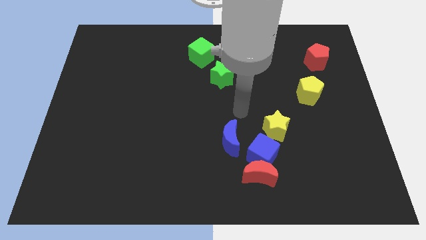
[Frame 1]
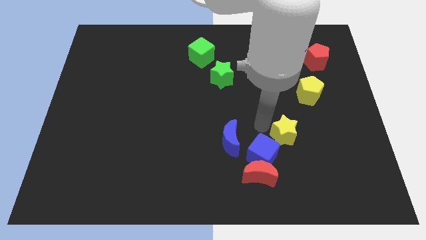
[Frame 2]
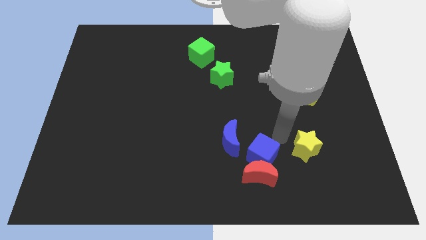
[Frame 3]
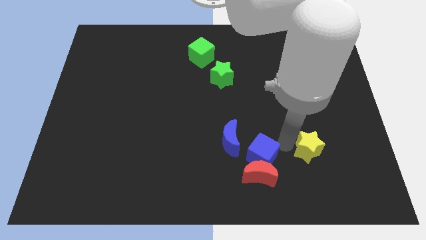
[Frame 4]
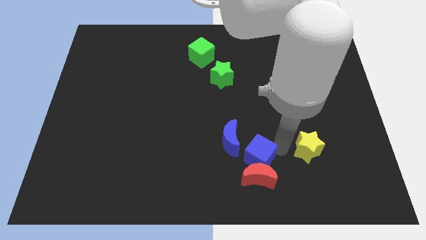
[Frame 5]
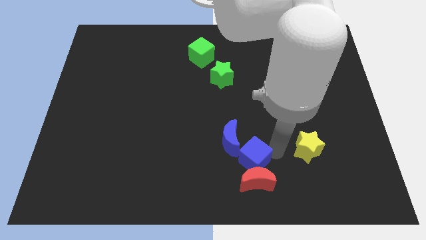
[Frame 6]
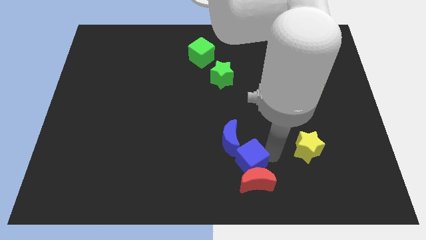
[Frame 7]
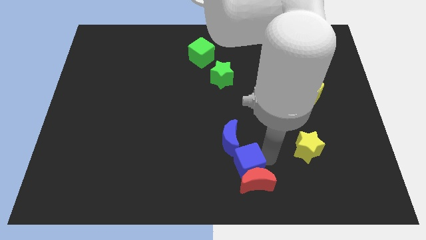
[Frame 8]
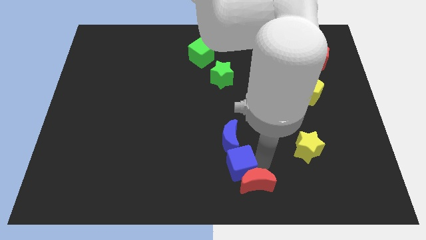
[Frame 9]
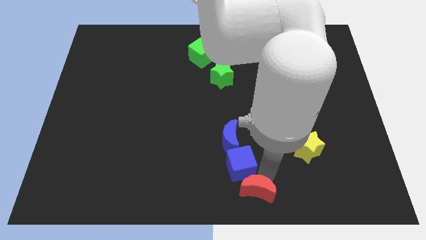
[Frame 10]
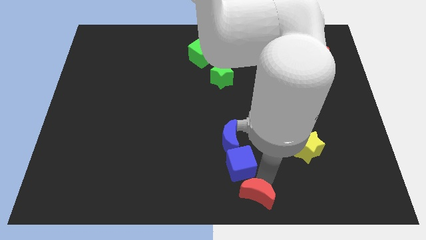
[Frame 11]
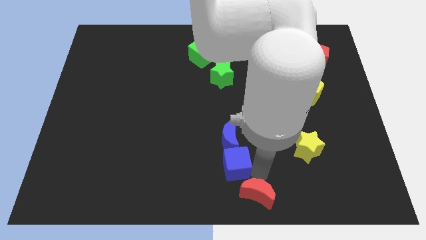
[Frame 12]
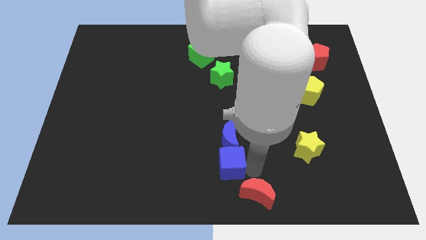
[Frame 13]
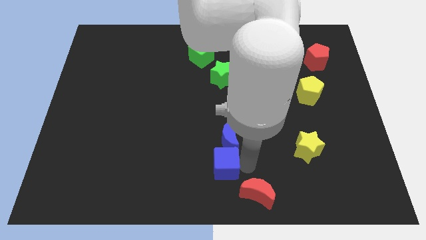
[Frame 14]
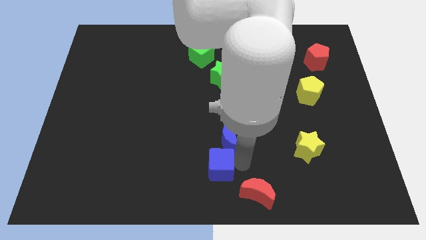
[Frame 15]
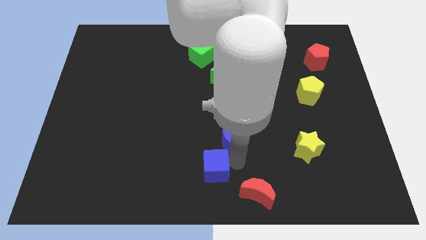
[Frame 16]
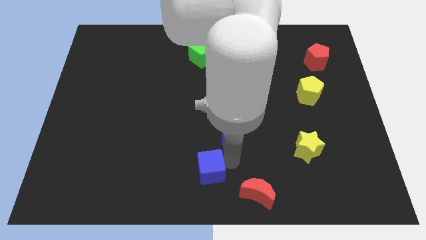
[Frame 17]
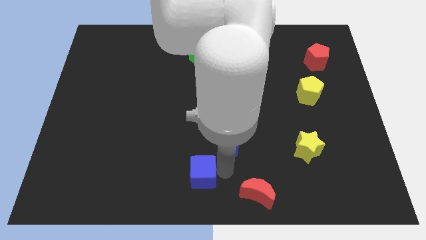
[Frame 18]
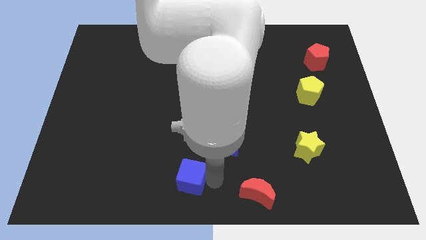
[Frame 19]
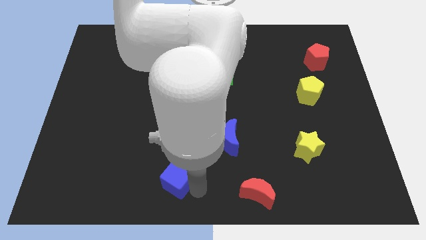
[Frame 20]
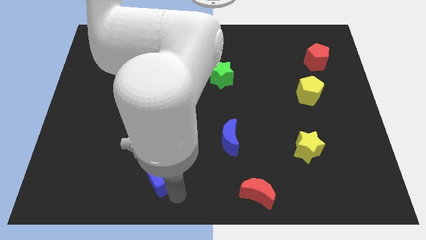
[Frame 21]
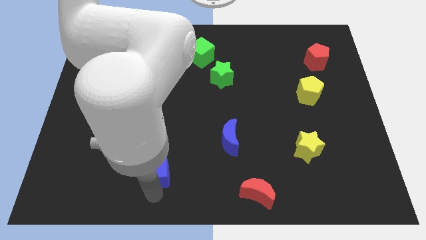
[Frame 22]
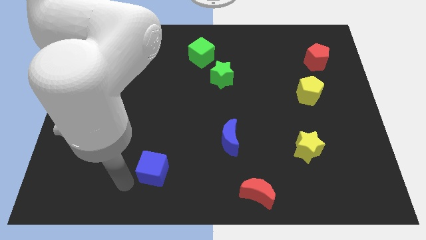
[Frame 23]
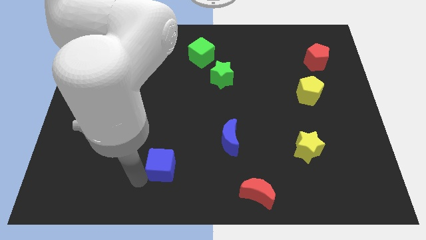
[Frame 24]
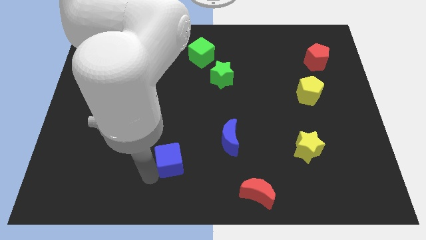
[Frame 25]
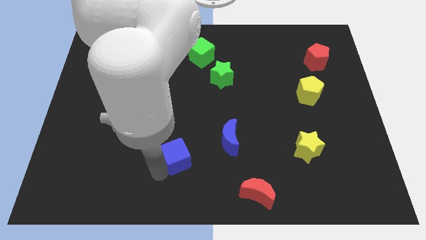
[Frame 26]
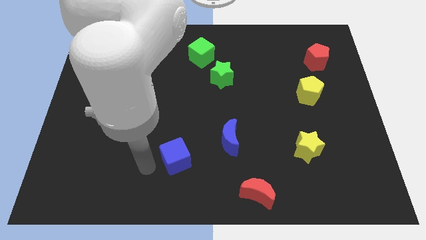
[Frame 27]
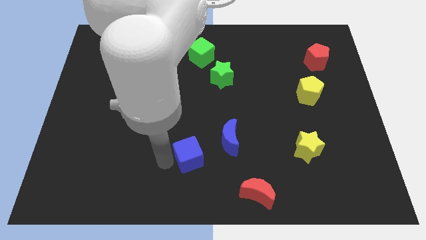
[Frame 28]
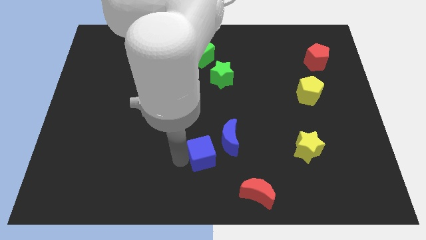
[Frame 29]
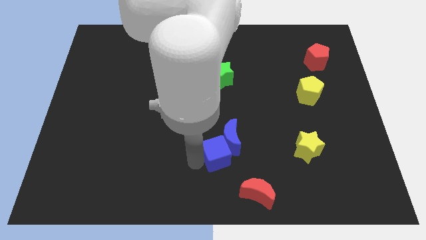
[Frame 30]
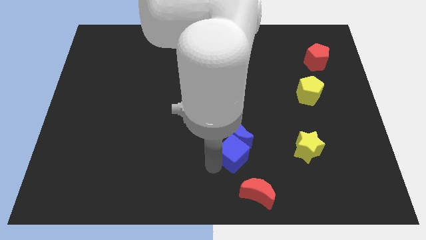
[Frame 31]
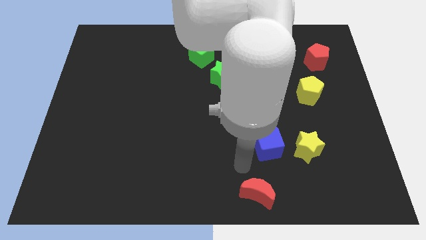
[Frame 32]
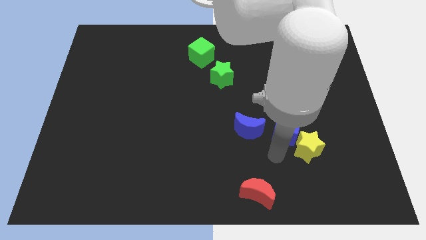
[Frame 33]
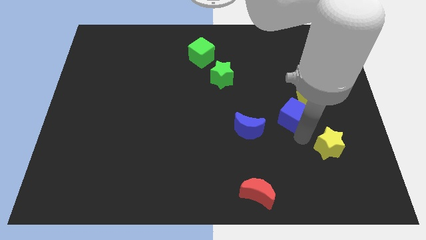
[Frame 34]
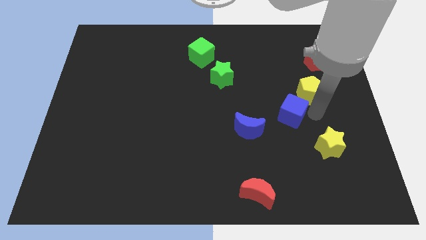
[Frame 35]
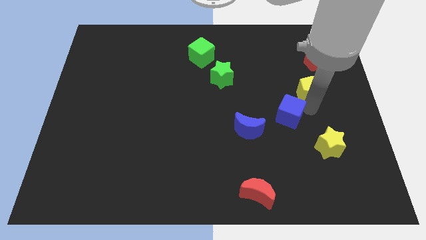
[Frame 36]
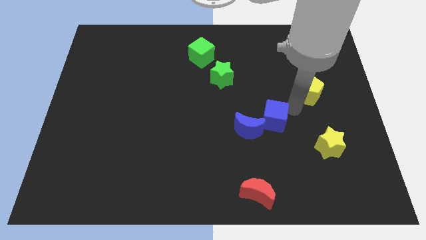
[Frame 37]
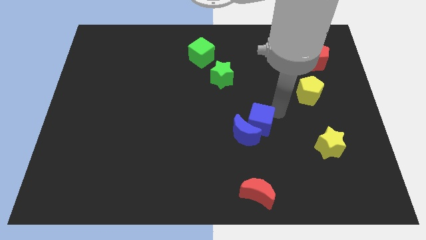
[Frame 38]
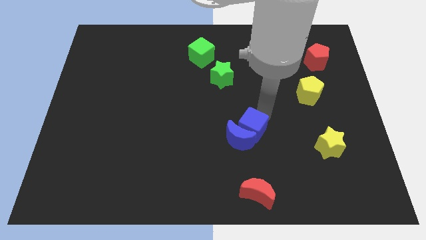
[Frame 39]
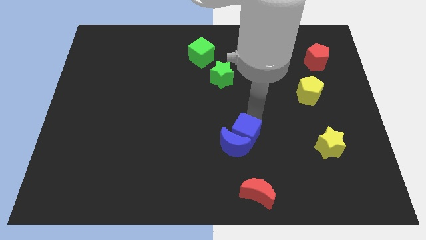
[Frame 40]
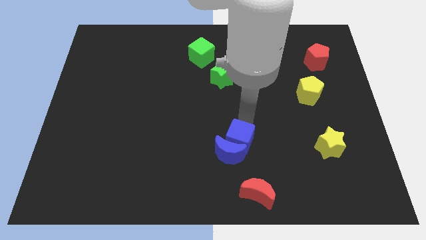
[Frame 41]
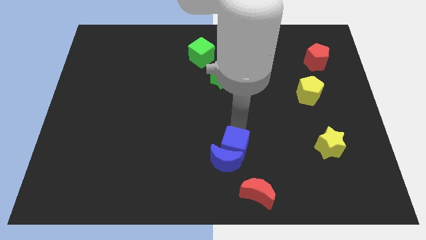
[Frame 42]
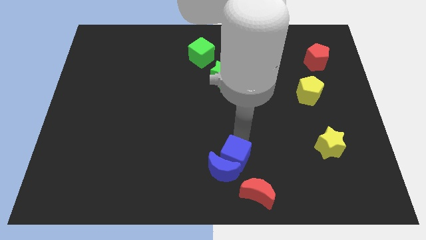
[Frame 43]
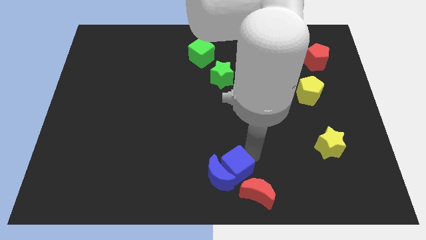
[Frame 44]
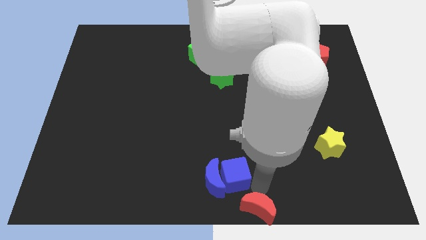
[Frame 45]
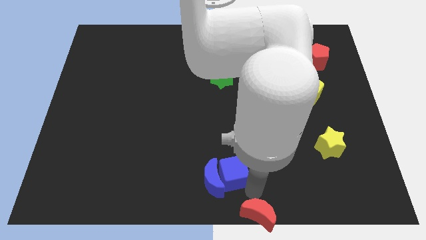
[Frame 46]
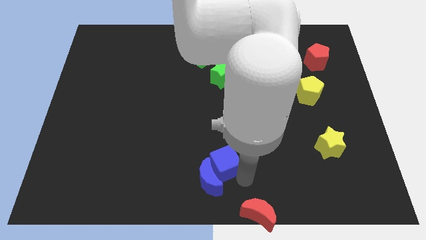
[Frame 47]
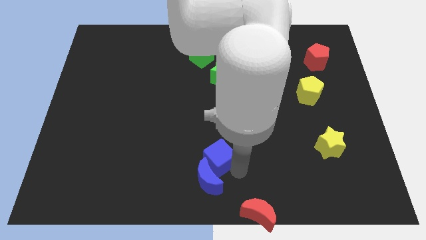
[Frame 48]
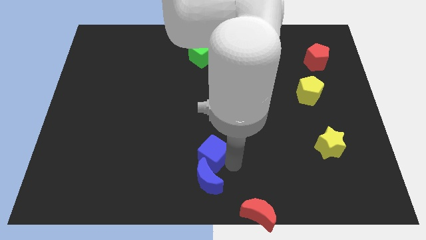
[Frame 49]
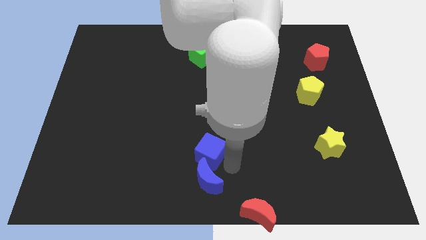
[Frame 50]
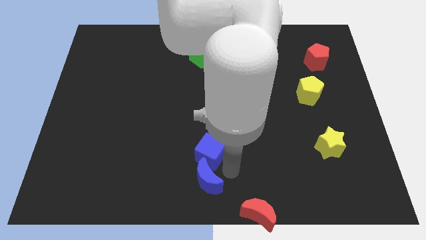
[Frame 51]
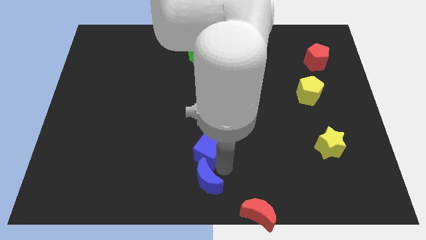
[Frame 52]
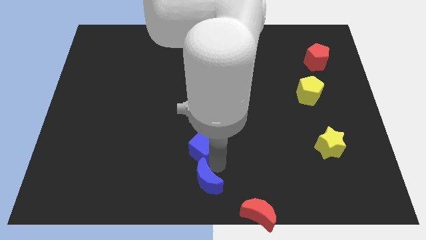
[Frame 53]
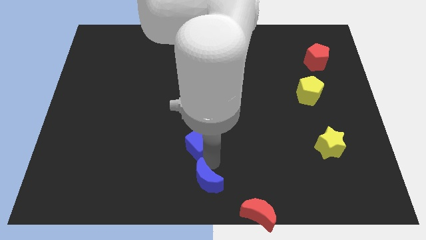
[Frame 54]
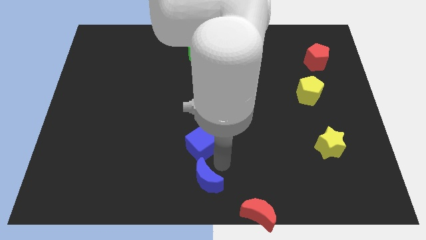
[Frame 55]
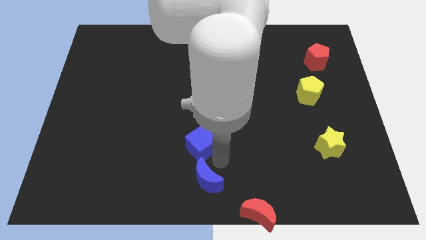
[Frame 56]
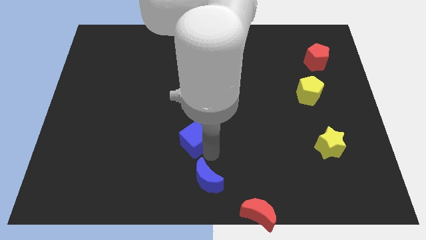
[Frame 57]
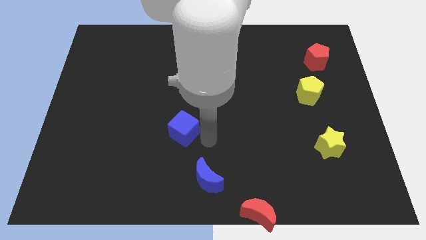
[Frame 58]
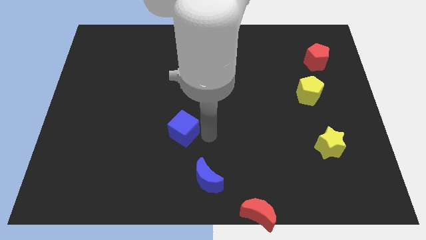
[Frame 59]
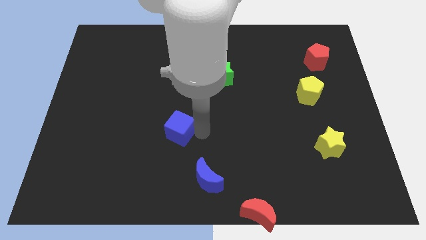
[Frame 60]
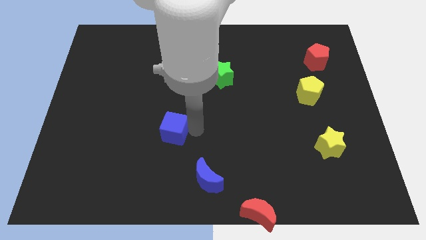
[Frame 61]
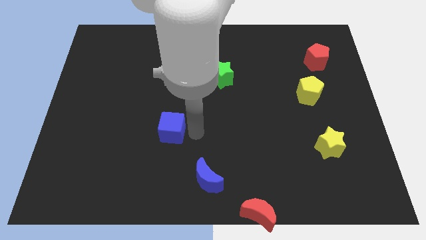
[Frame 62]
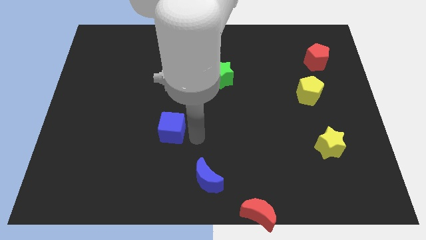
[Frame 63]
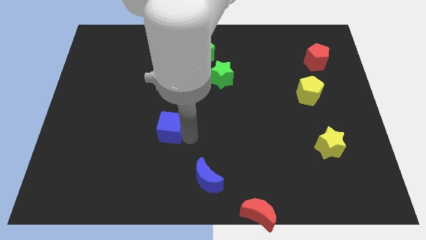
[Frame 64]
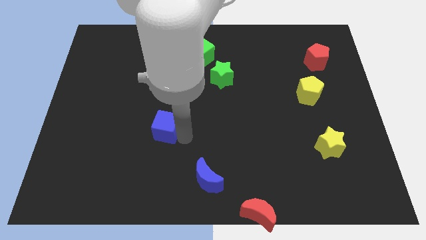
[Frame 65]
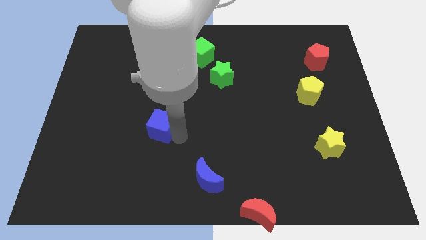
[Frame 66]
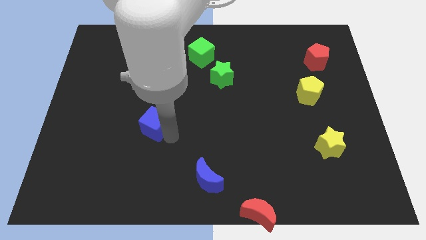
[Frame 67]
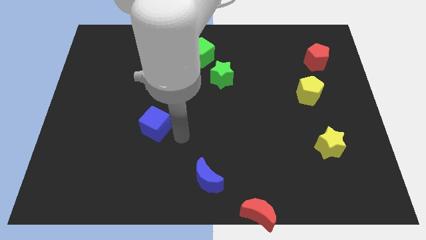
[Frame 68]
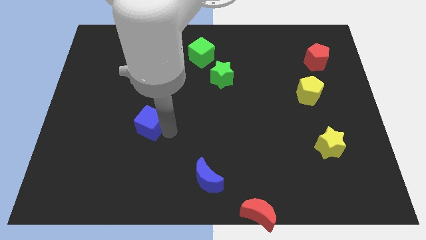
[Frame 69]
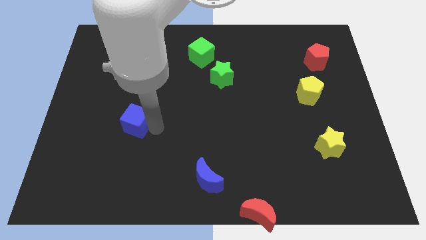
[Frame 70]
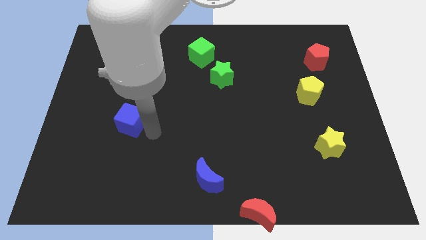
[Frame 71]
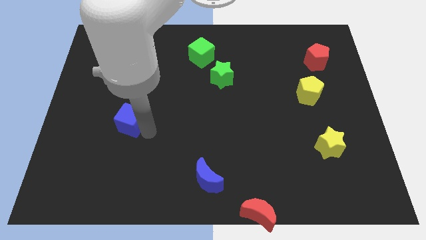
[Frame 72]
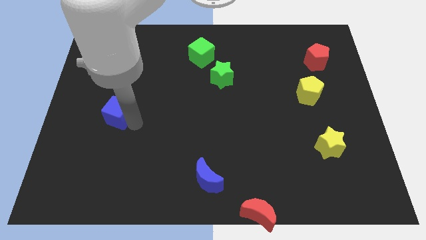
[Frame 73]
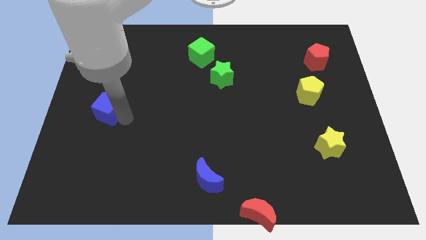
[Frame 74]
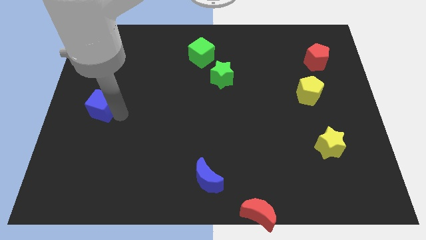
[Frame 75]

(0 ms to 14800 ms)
put the blue cube to the center left
